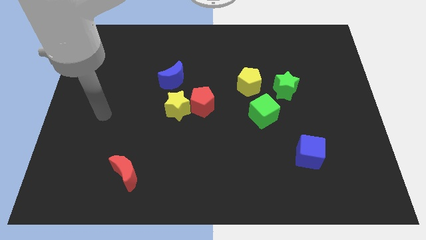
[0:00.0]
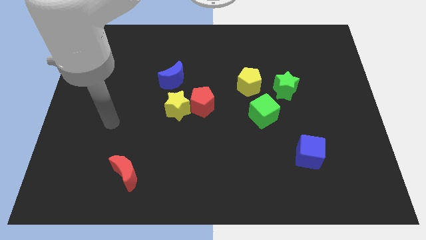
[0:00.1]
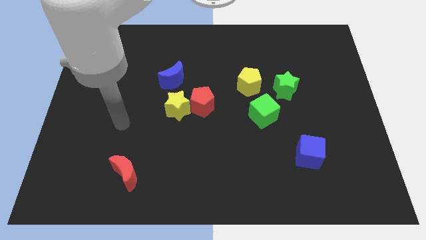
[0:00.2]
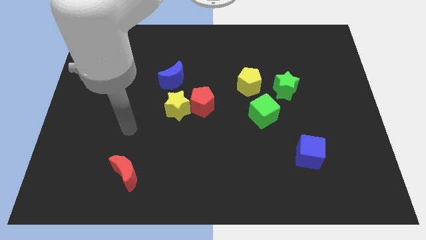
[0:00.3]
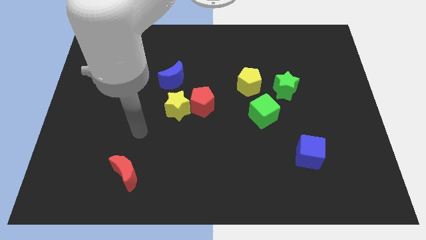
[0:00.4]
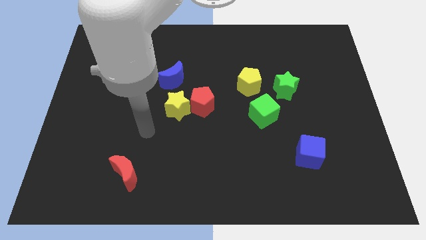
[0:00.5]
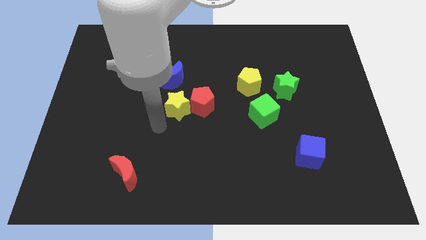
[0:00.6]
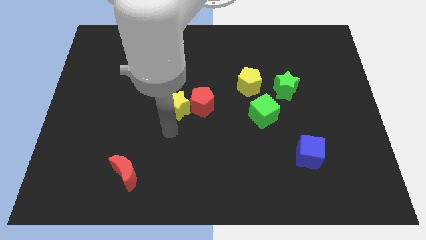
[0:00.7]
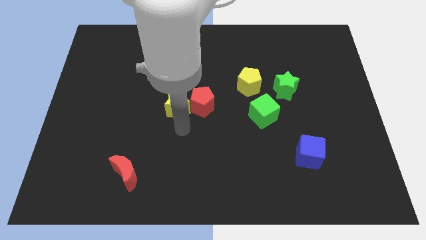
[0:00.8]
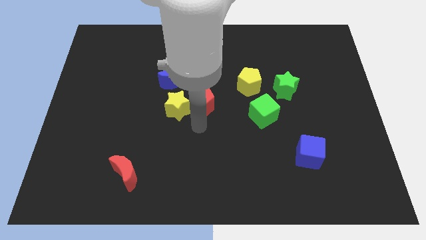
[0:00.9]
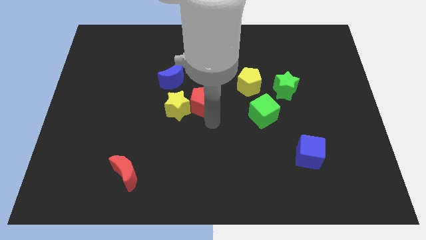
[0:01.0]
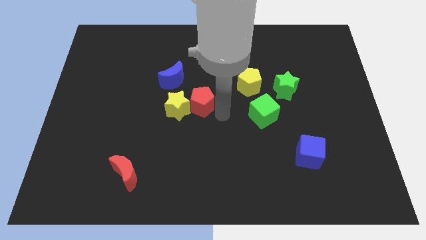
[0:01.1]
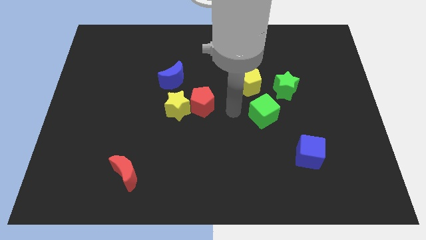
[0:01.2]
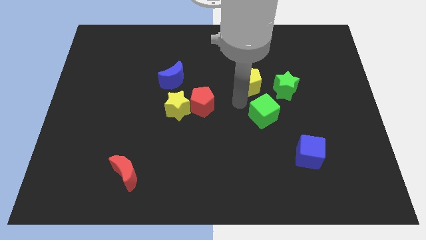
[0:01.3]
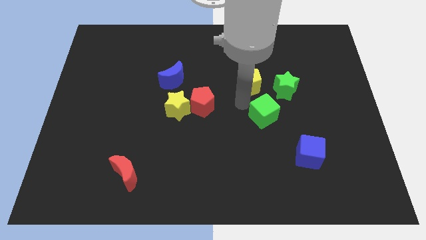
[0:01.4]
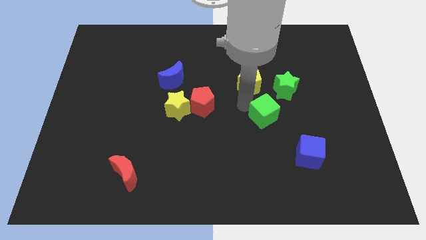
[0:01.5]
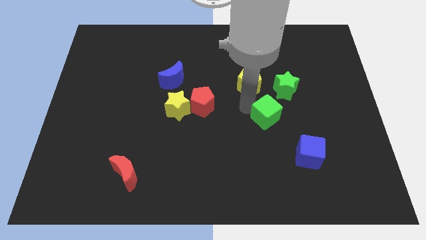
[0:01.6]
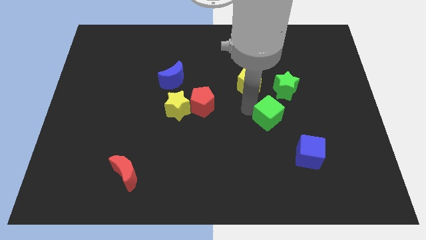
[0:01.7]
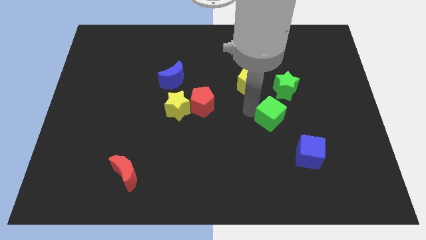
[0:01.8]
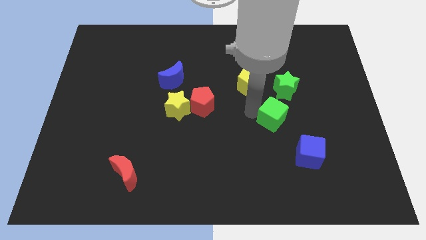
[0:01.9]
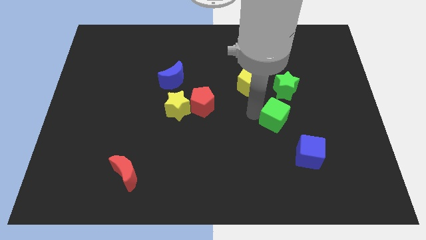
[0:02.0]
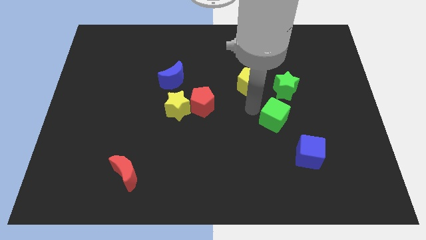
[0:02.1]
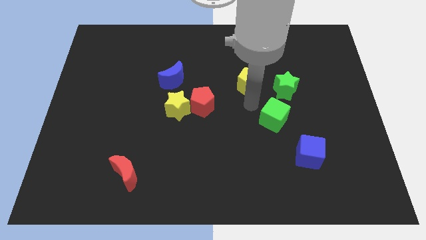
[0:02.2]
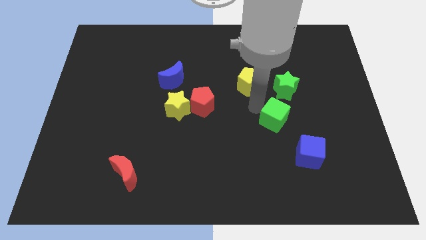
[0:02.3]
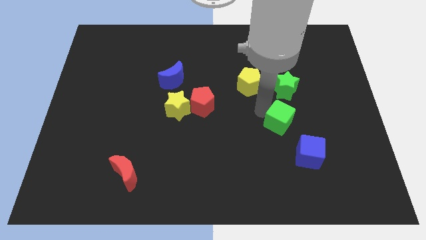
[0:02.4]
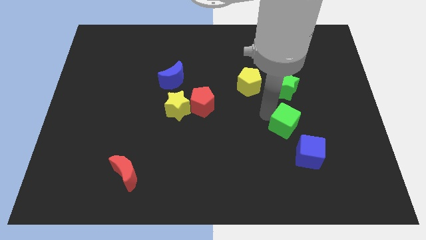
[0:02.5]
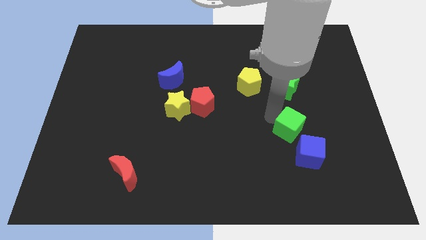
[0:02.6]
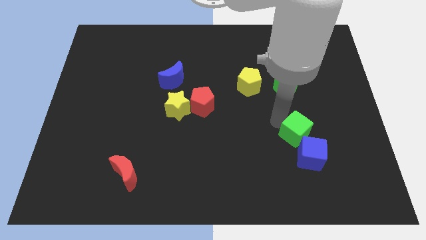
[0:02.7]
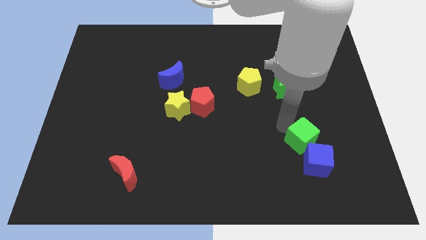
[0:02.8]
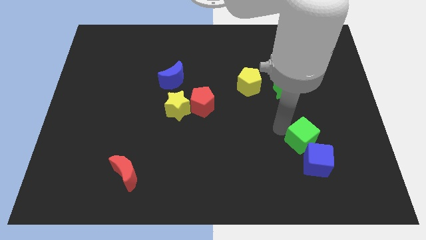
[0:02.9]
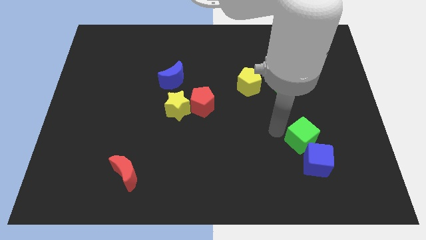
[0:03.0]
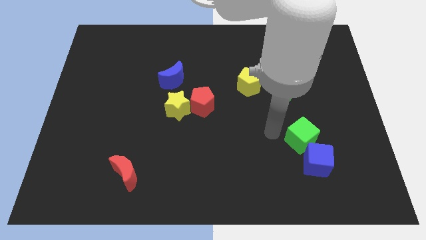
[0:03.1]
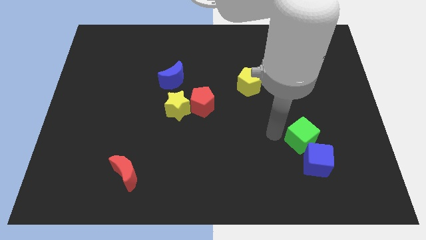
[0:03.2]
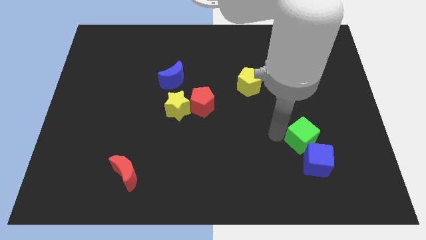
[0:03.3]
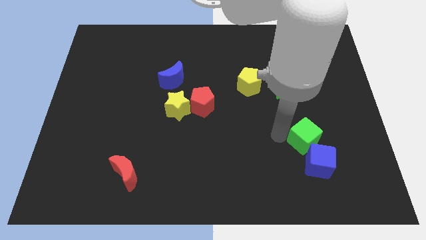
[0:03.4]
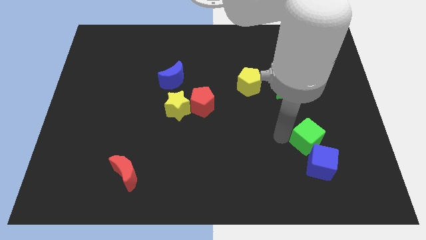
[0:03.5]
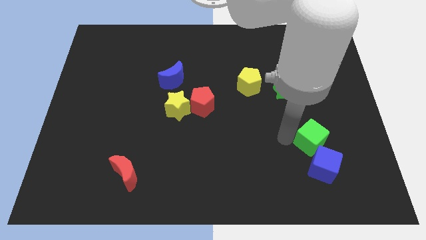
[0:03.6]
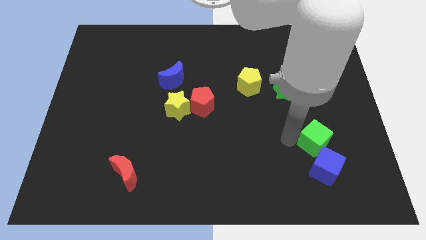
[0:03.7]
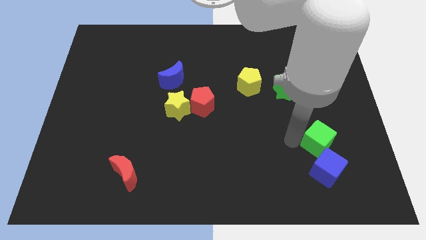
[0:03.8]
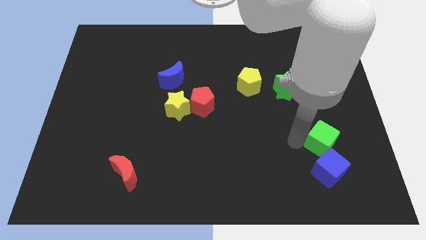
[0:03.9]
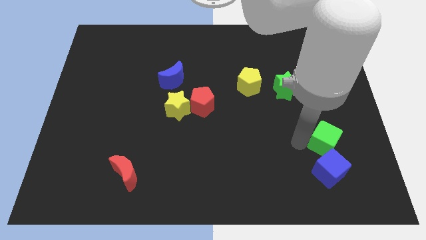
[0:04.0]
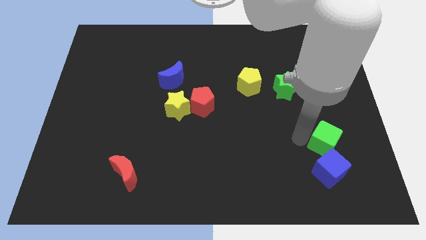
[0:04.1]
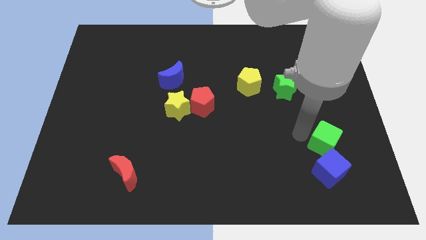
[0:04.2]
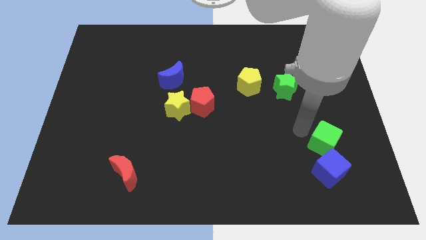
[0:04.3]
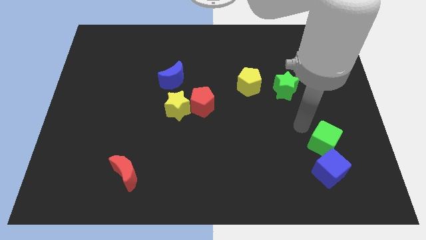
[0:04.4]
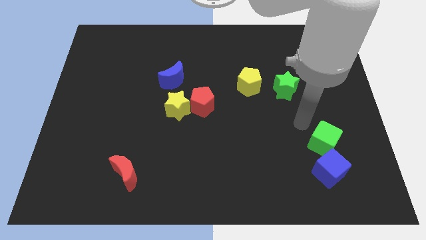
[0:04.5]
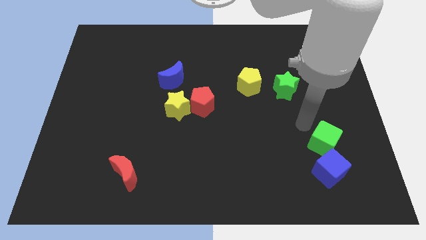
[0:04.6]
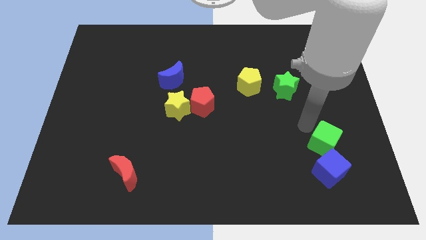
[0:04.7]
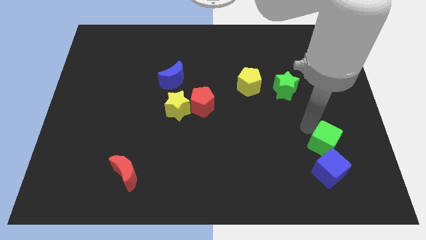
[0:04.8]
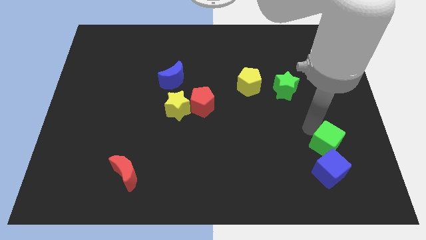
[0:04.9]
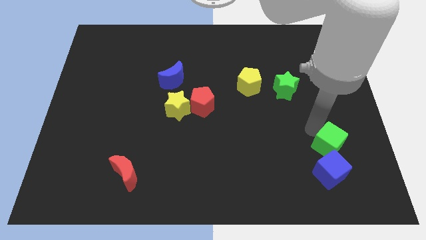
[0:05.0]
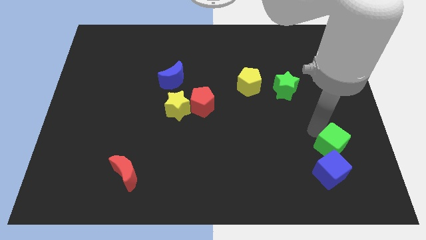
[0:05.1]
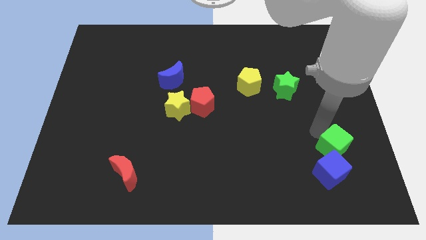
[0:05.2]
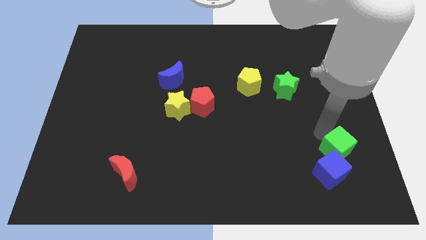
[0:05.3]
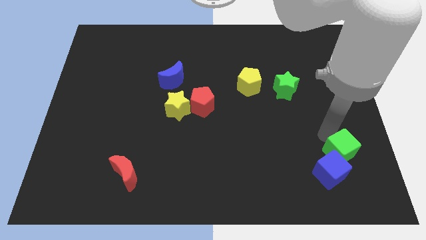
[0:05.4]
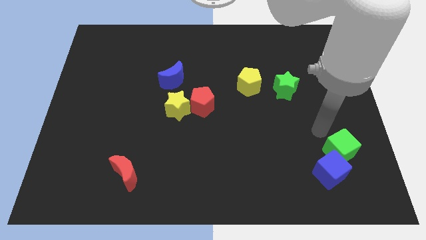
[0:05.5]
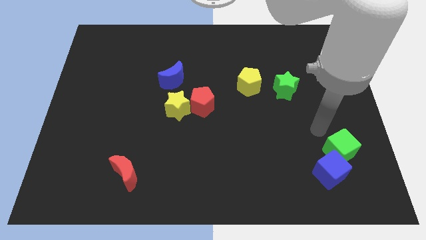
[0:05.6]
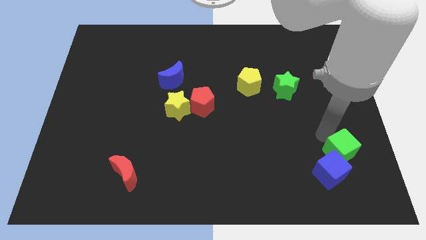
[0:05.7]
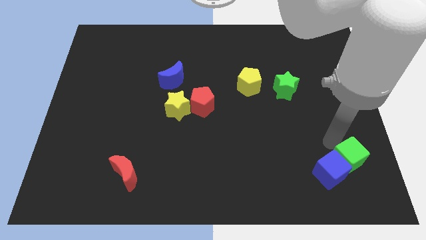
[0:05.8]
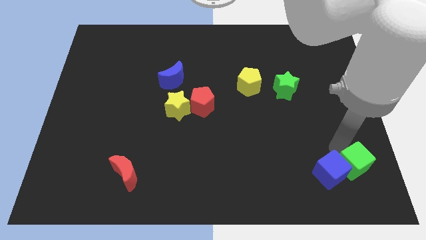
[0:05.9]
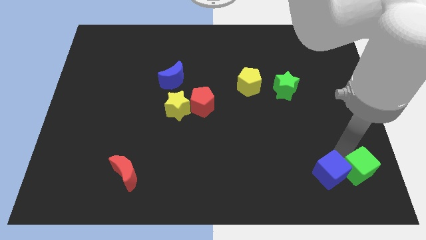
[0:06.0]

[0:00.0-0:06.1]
push the green cube to the bottom right of the board

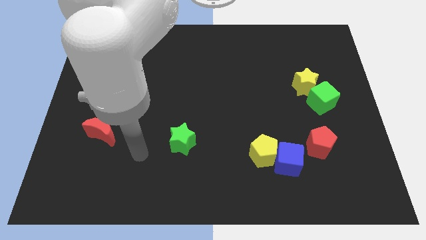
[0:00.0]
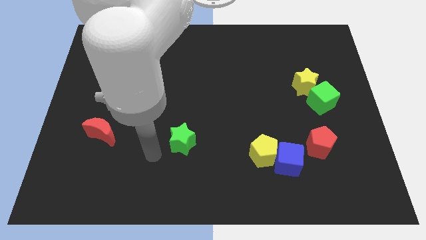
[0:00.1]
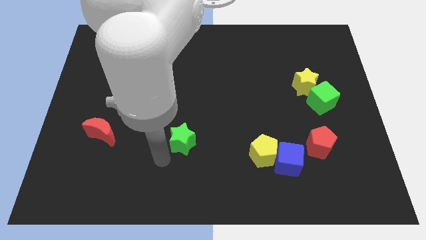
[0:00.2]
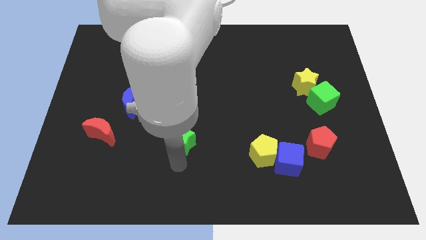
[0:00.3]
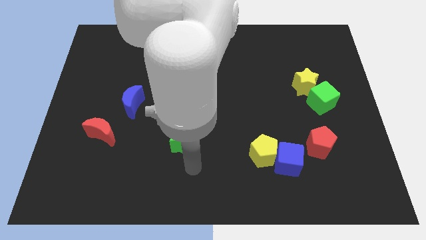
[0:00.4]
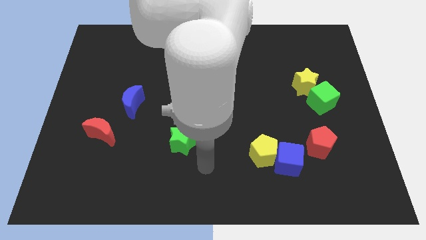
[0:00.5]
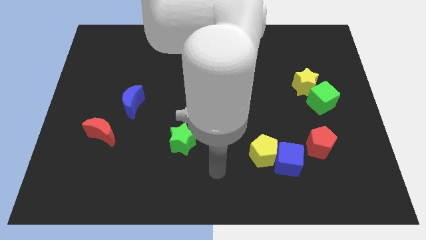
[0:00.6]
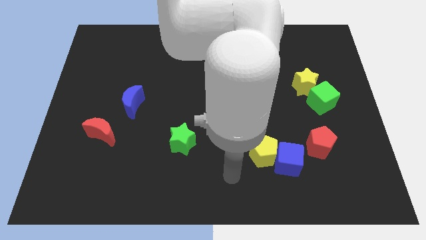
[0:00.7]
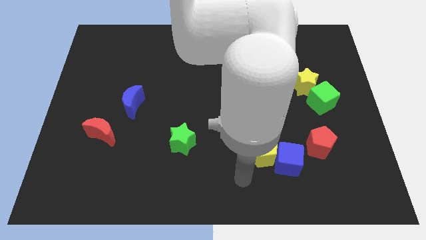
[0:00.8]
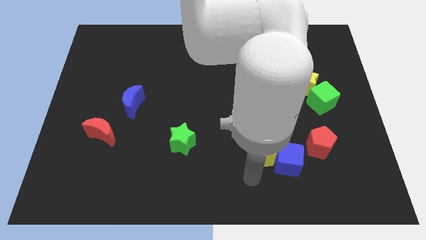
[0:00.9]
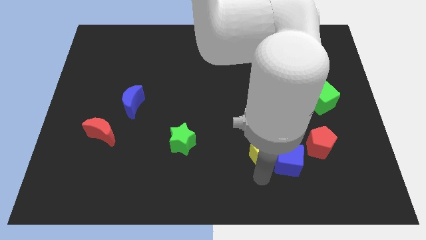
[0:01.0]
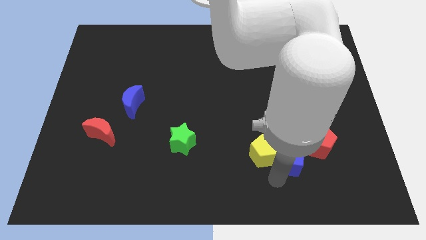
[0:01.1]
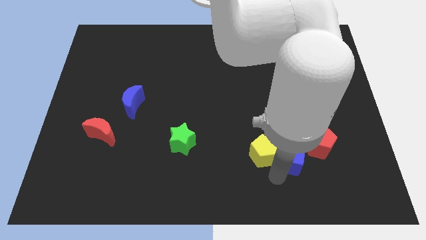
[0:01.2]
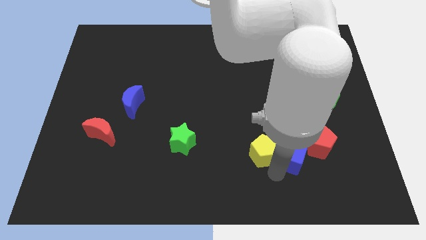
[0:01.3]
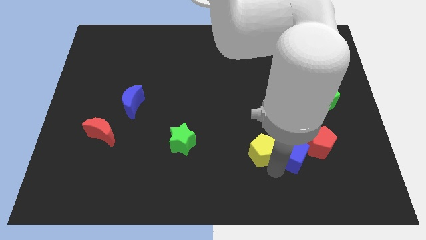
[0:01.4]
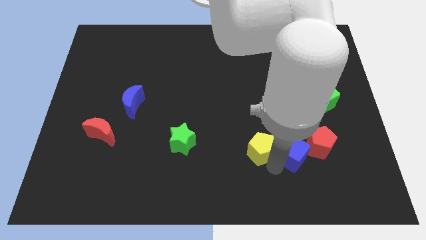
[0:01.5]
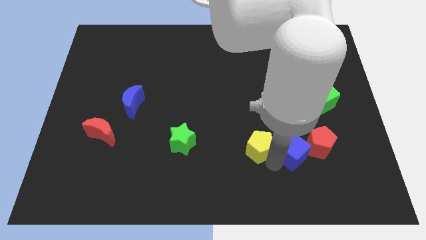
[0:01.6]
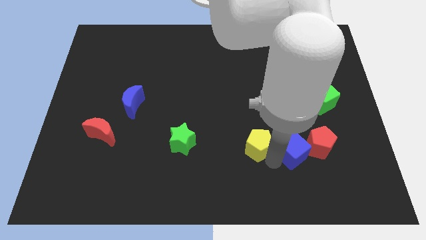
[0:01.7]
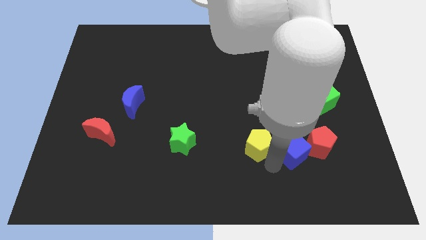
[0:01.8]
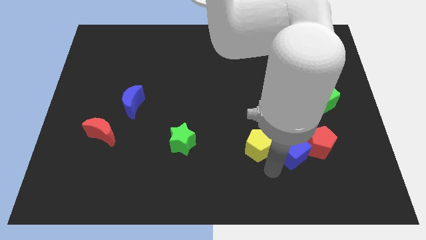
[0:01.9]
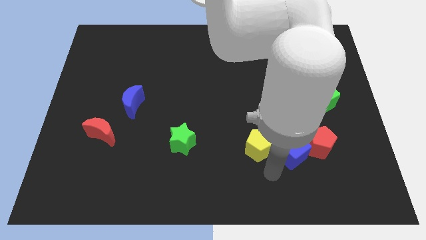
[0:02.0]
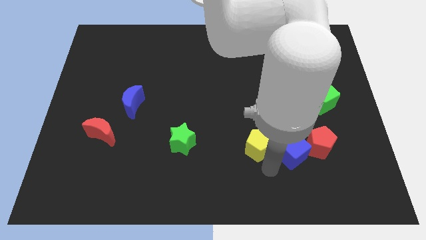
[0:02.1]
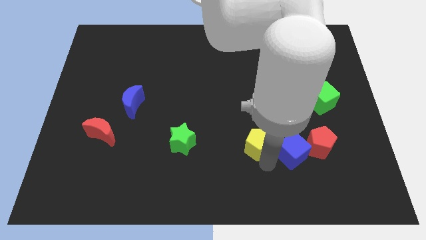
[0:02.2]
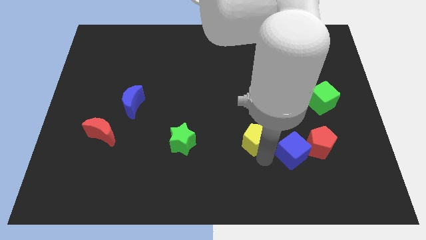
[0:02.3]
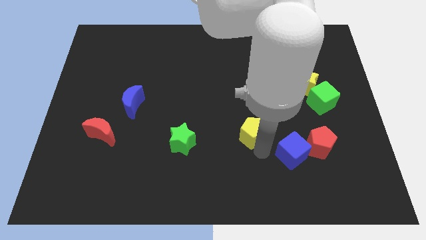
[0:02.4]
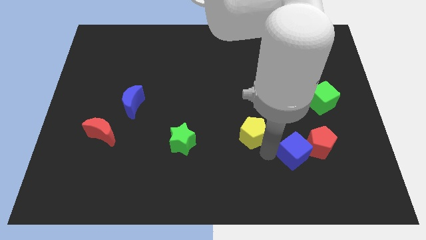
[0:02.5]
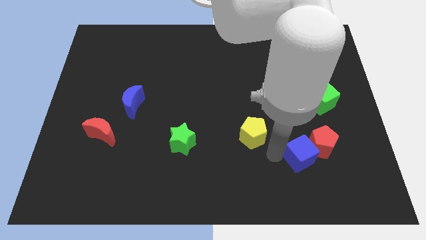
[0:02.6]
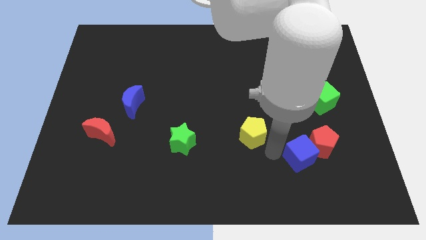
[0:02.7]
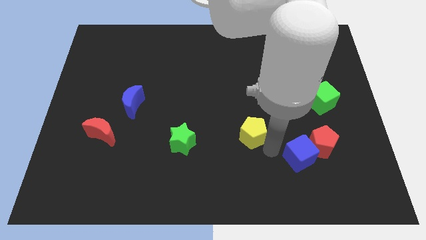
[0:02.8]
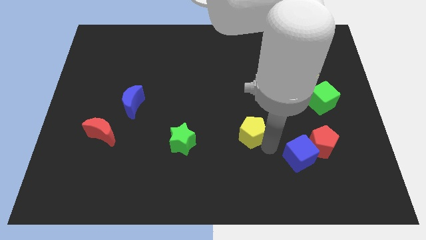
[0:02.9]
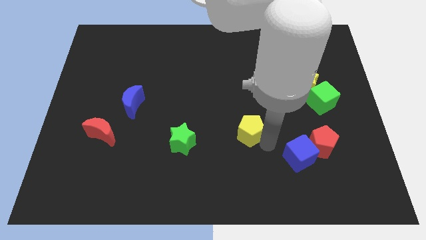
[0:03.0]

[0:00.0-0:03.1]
push the yellow pentagon to the center of the board
